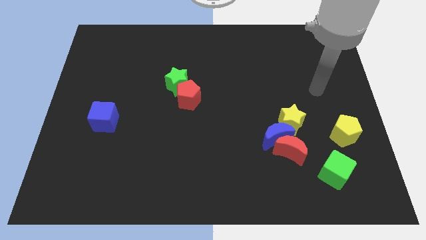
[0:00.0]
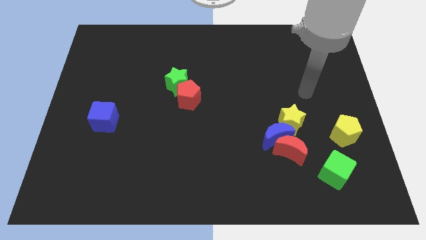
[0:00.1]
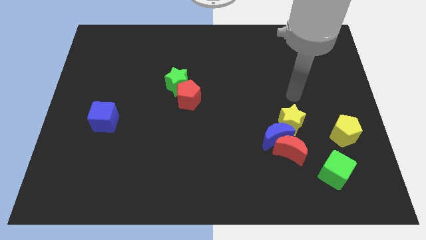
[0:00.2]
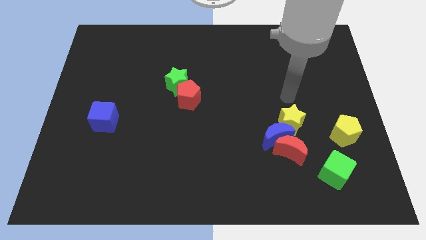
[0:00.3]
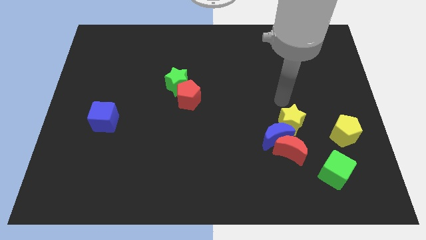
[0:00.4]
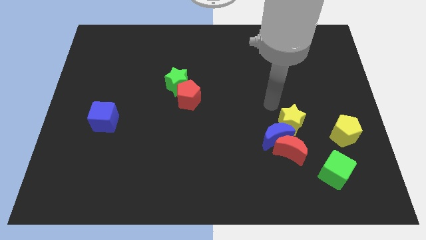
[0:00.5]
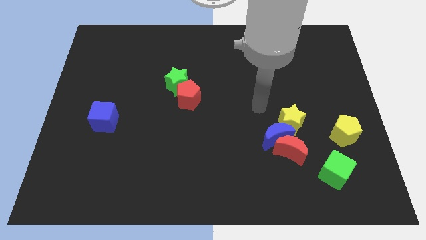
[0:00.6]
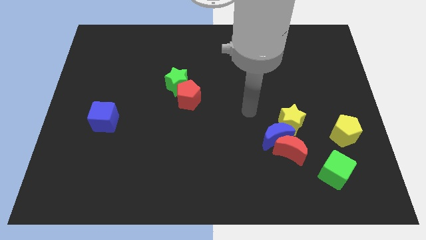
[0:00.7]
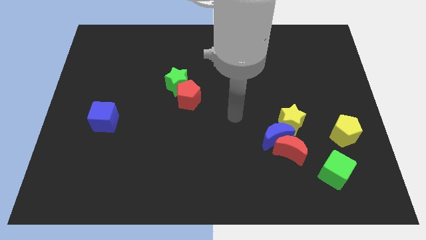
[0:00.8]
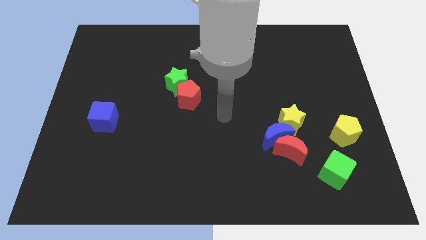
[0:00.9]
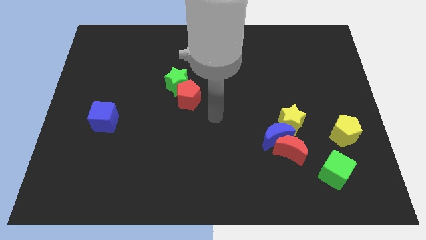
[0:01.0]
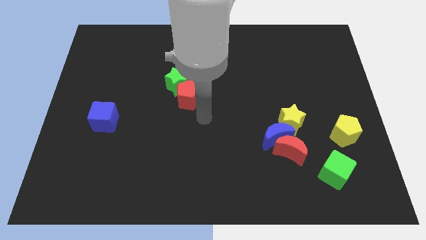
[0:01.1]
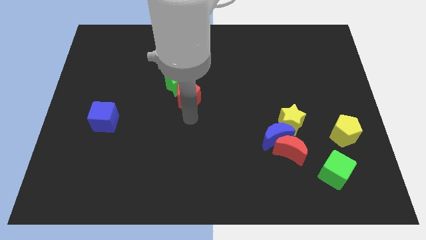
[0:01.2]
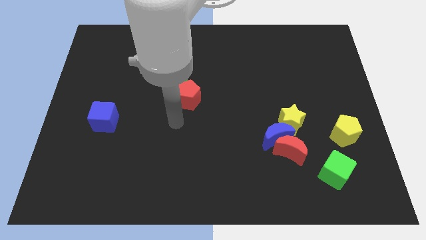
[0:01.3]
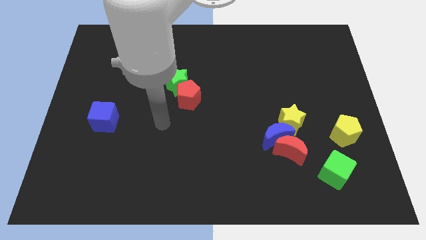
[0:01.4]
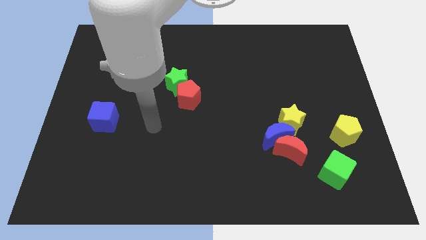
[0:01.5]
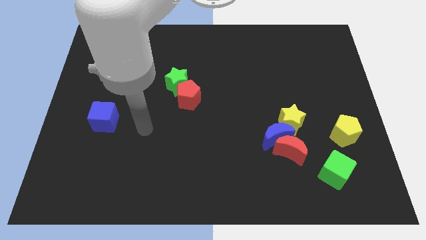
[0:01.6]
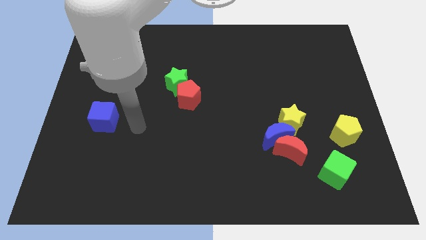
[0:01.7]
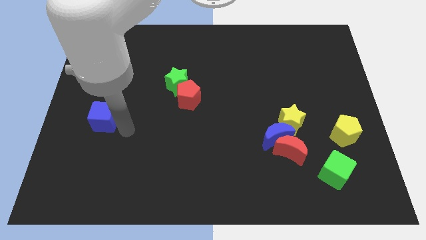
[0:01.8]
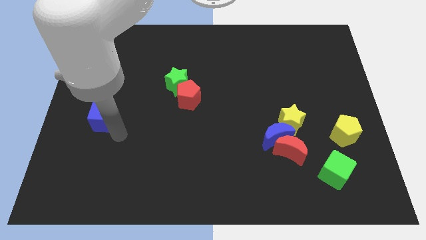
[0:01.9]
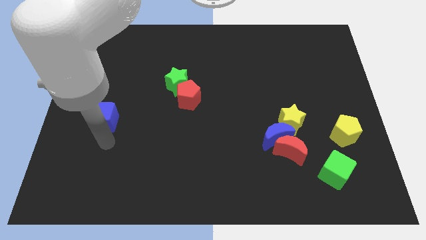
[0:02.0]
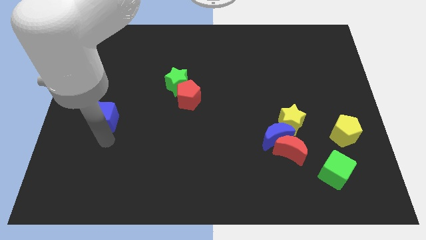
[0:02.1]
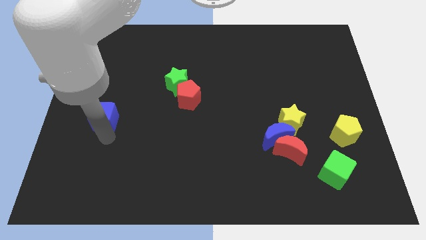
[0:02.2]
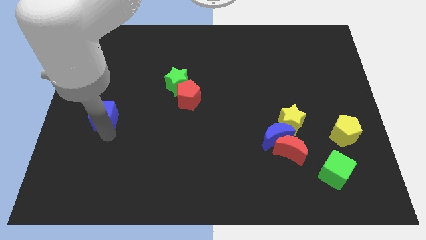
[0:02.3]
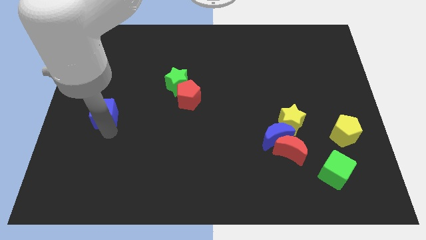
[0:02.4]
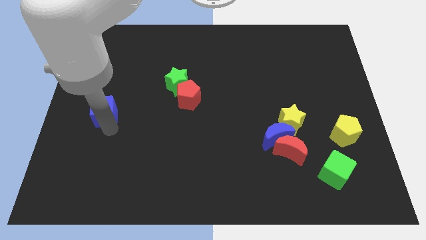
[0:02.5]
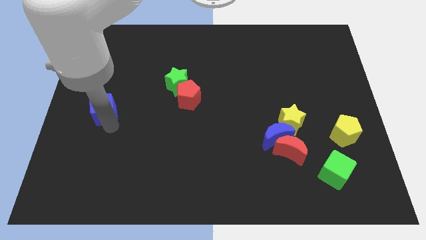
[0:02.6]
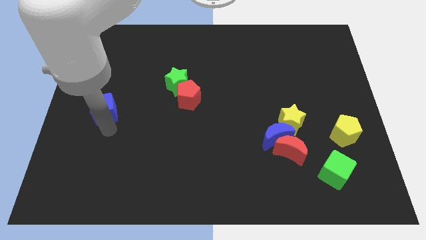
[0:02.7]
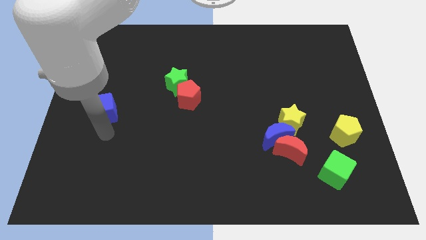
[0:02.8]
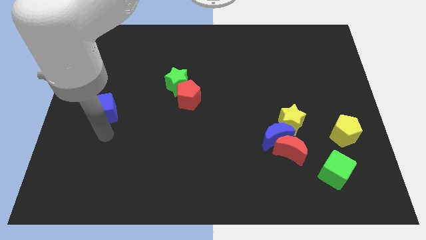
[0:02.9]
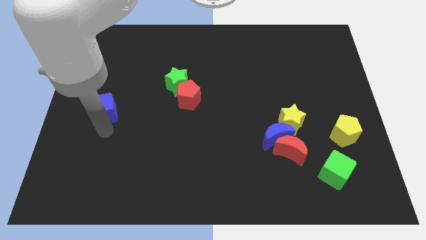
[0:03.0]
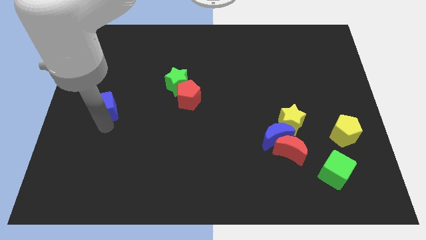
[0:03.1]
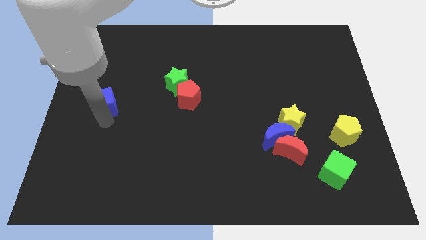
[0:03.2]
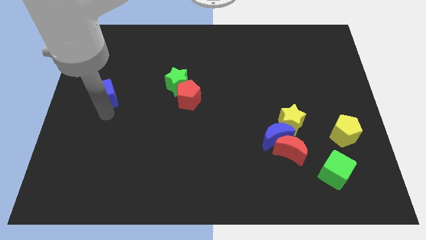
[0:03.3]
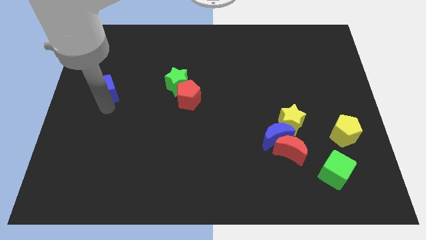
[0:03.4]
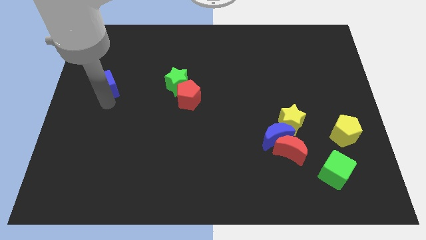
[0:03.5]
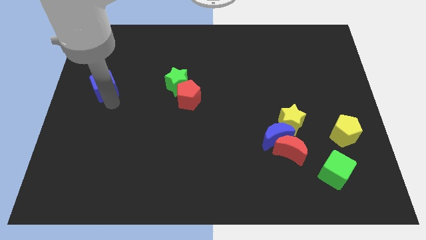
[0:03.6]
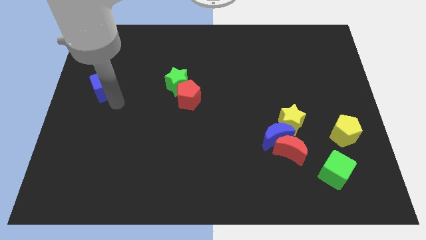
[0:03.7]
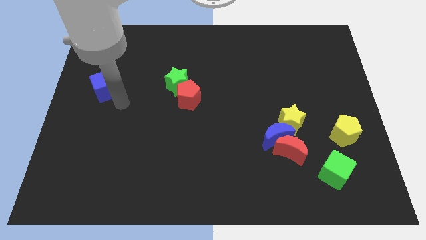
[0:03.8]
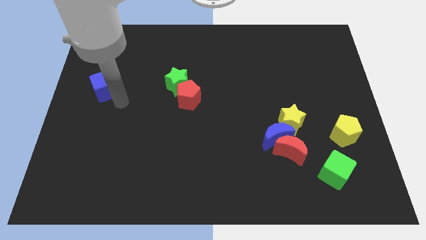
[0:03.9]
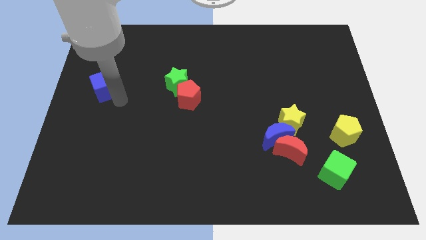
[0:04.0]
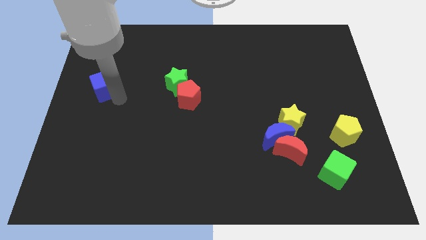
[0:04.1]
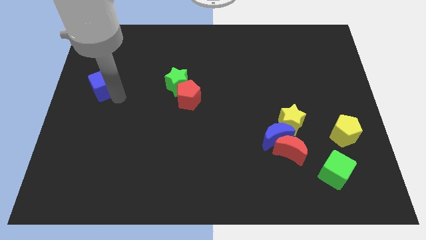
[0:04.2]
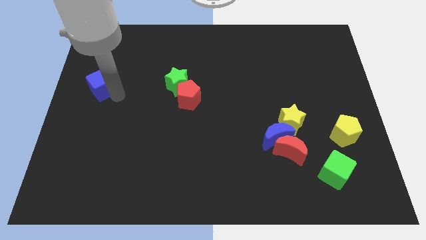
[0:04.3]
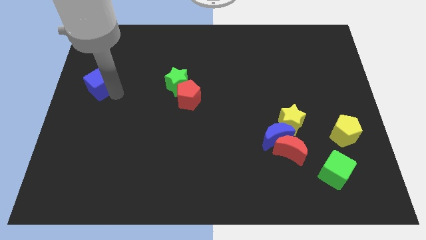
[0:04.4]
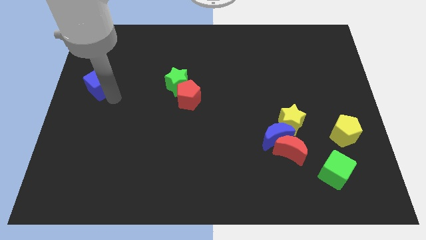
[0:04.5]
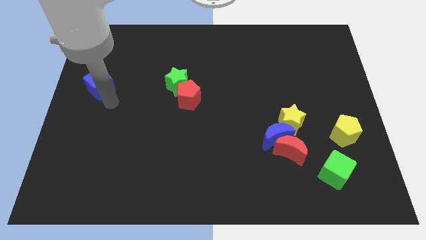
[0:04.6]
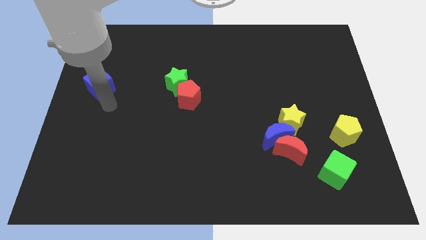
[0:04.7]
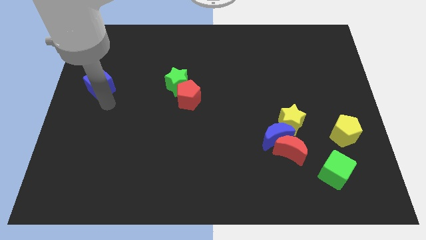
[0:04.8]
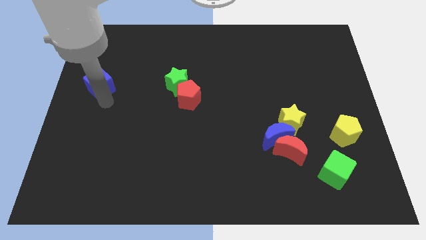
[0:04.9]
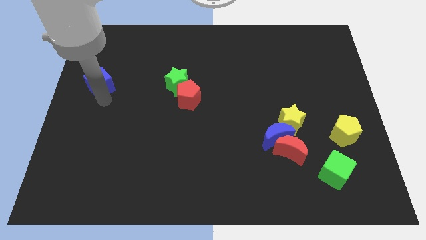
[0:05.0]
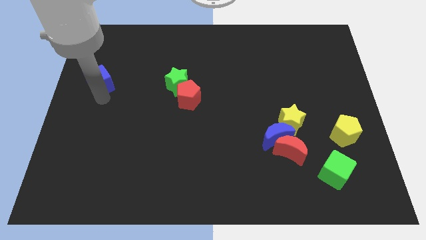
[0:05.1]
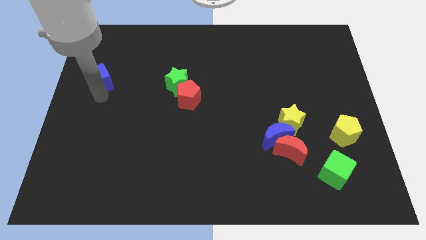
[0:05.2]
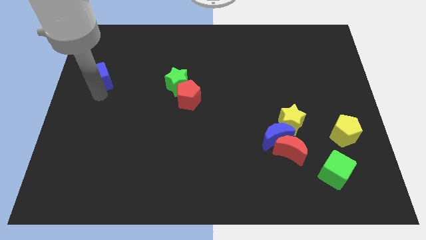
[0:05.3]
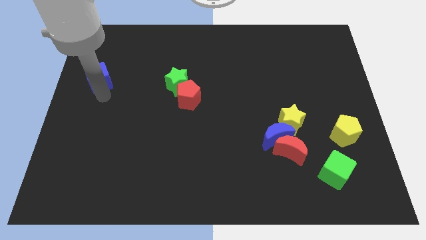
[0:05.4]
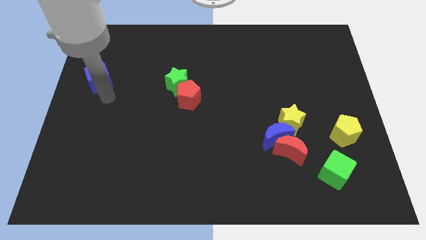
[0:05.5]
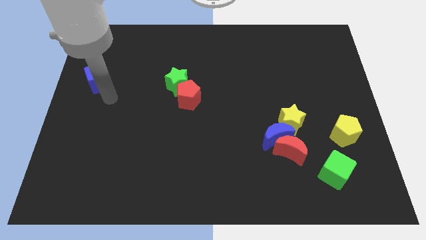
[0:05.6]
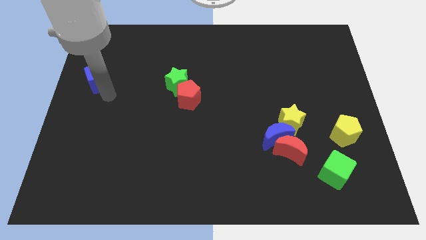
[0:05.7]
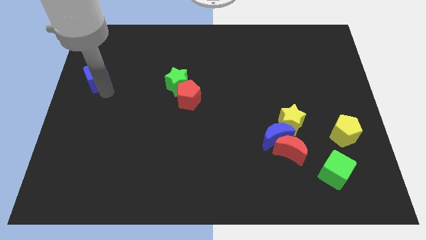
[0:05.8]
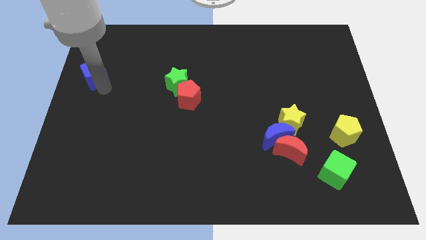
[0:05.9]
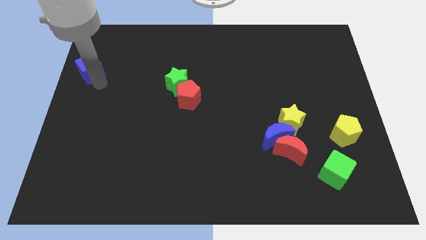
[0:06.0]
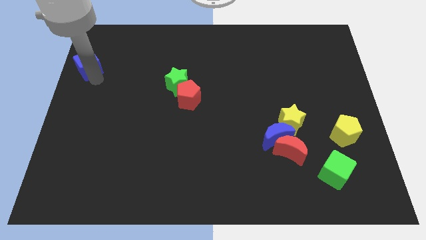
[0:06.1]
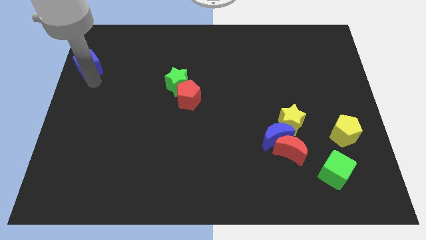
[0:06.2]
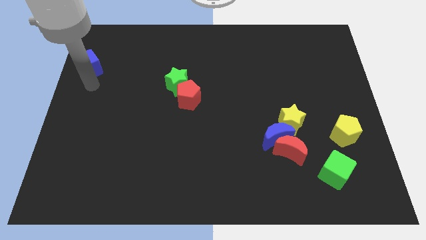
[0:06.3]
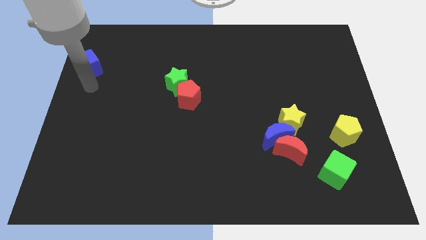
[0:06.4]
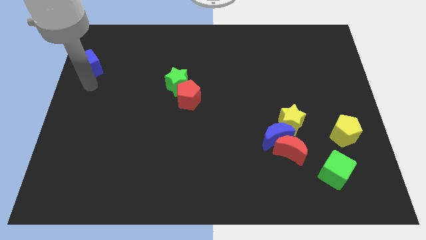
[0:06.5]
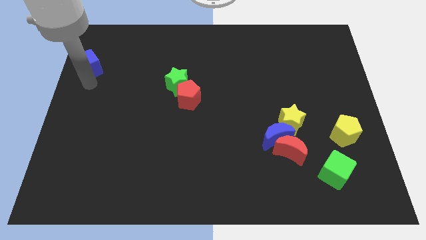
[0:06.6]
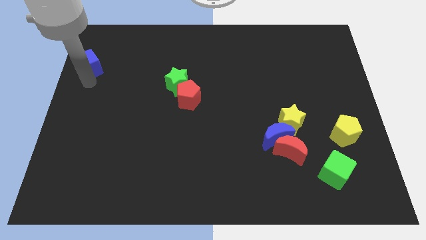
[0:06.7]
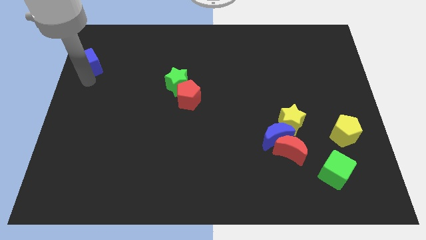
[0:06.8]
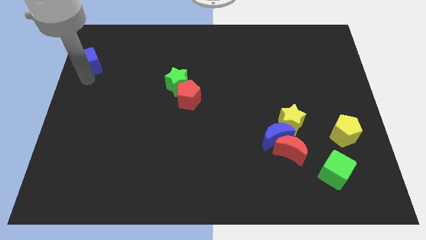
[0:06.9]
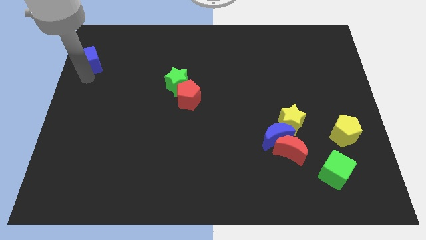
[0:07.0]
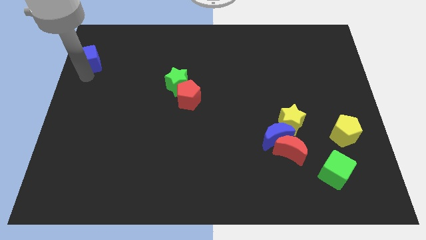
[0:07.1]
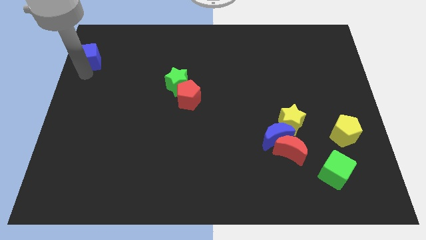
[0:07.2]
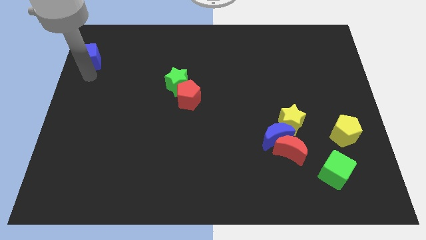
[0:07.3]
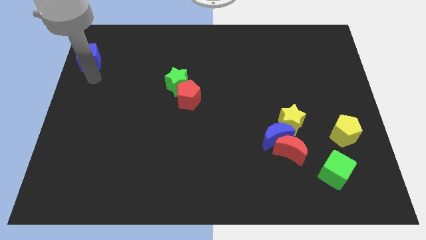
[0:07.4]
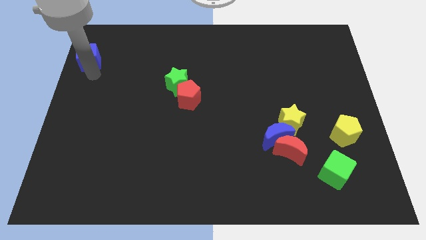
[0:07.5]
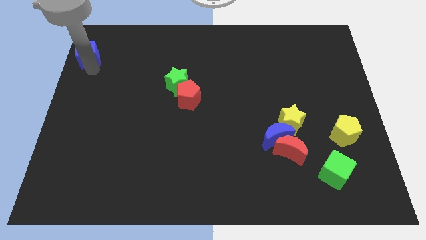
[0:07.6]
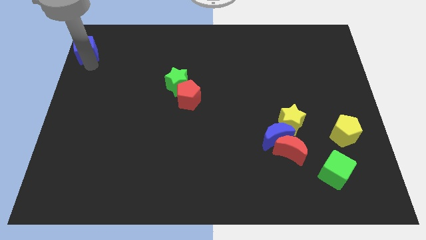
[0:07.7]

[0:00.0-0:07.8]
slide the blue cube to the top left
